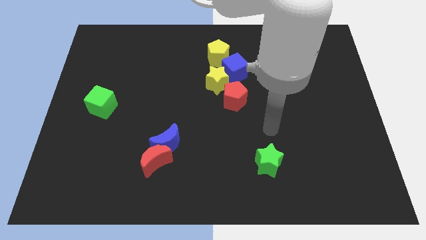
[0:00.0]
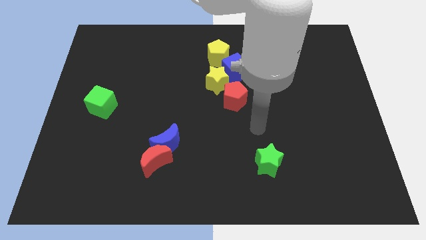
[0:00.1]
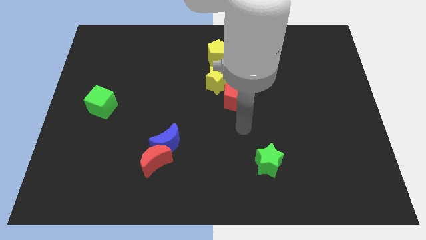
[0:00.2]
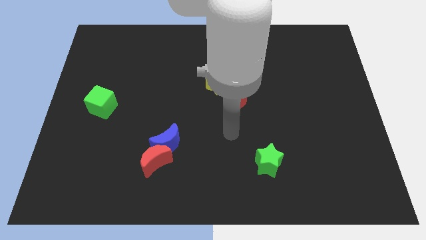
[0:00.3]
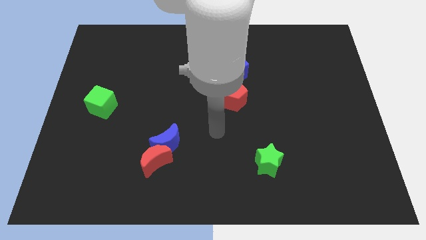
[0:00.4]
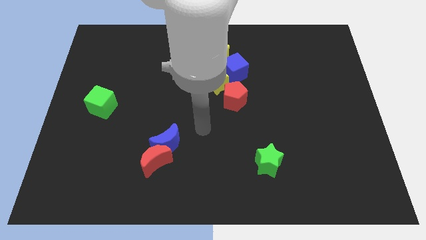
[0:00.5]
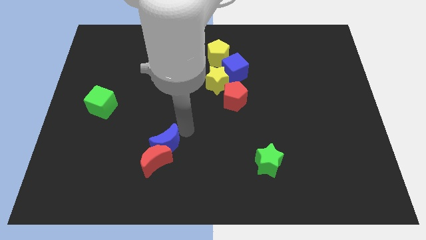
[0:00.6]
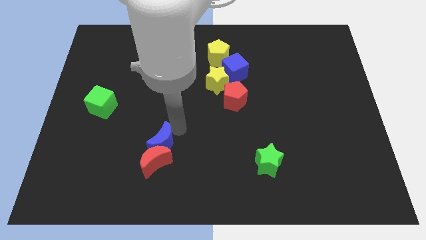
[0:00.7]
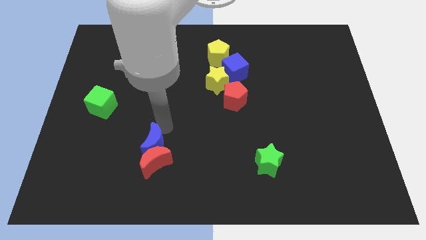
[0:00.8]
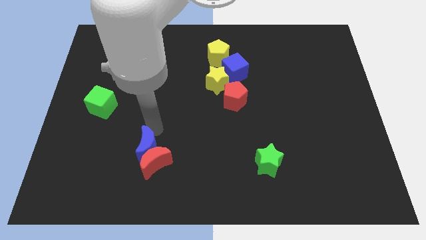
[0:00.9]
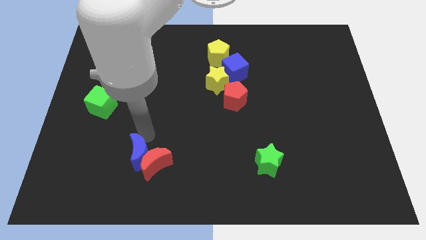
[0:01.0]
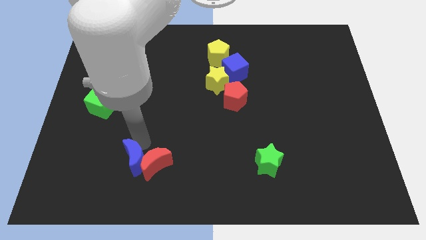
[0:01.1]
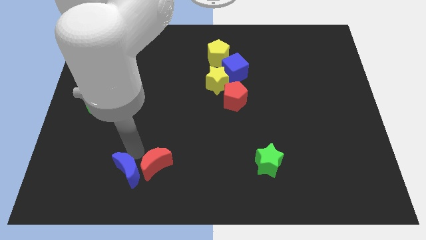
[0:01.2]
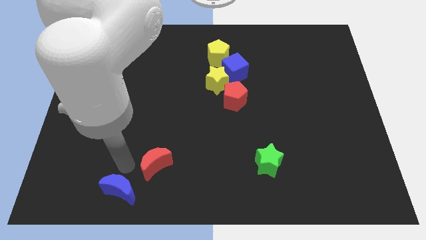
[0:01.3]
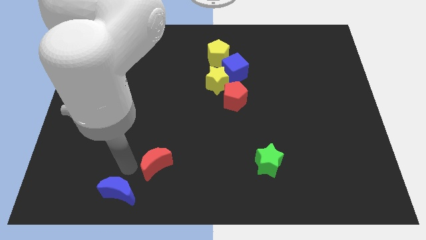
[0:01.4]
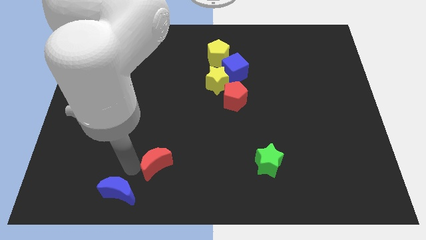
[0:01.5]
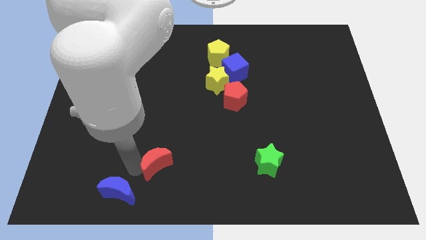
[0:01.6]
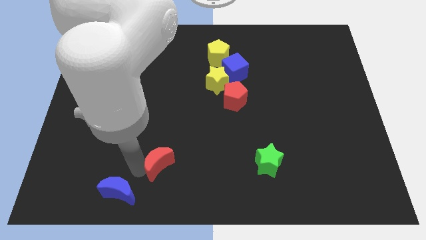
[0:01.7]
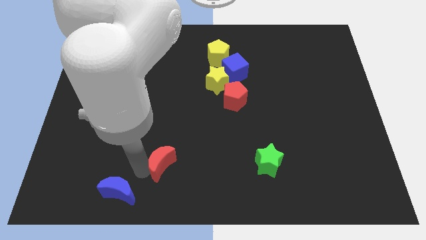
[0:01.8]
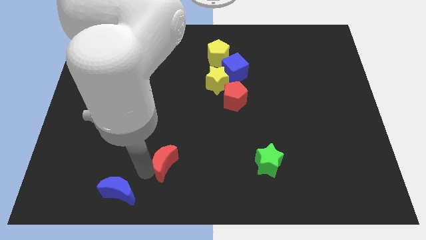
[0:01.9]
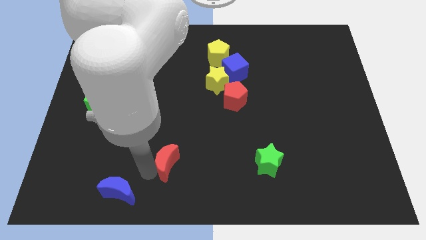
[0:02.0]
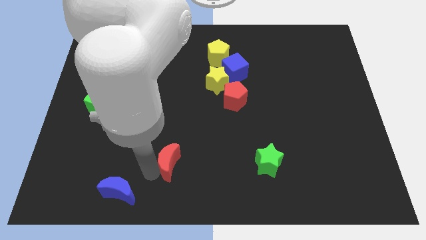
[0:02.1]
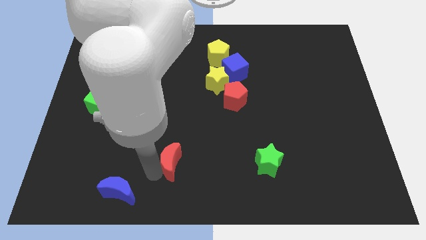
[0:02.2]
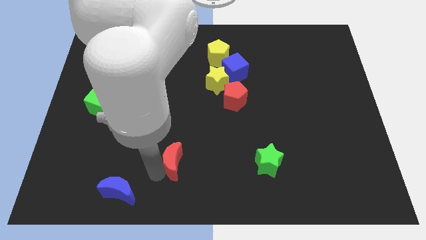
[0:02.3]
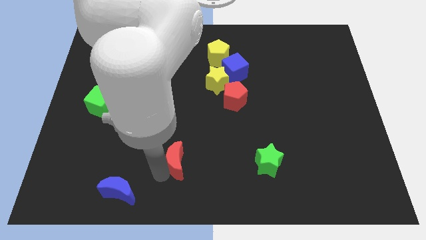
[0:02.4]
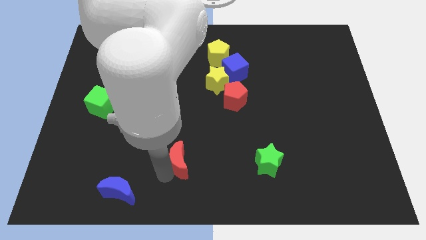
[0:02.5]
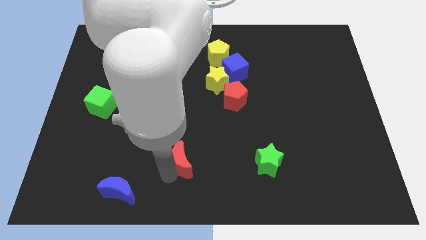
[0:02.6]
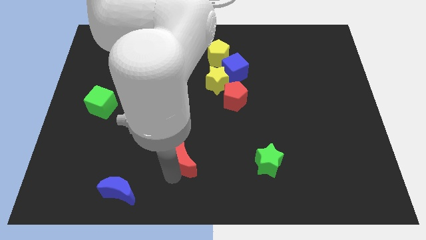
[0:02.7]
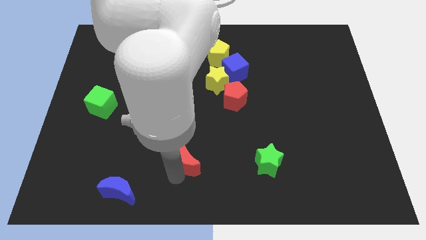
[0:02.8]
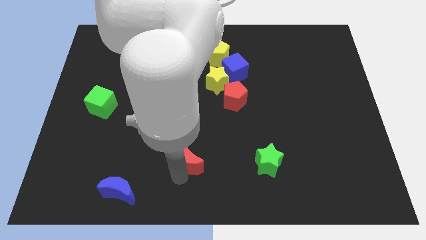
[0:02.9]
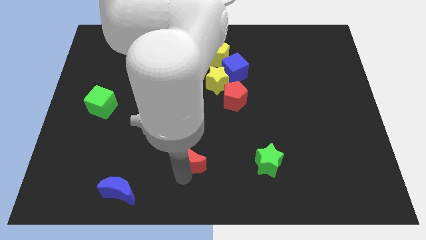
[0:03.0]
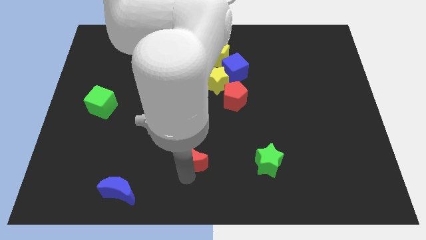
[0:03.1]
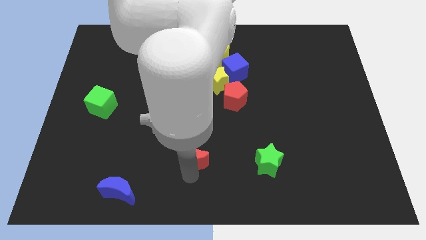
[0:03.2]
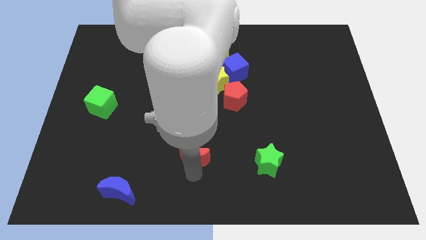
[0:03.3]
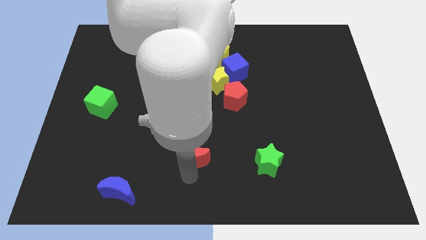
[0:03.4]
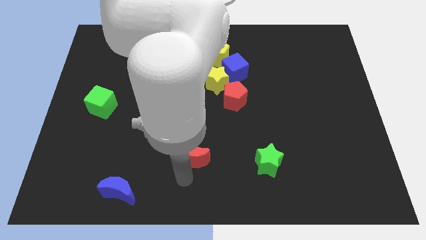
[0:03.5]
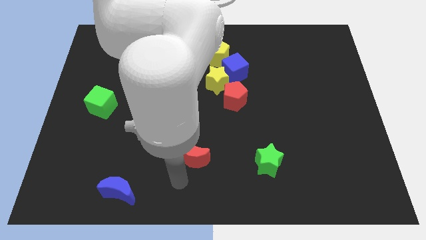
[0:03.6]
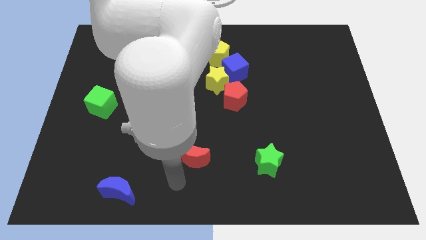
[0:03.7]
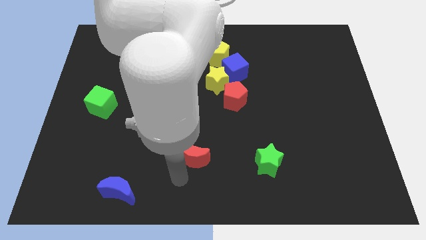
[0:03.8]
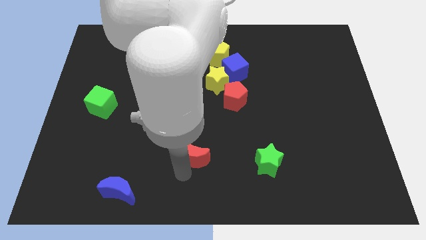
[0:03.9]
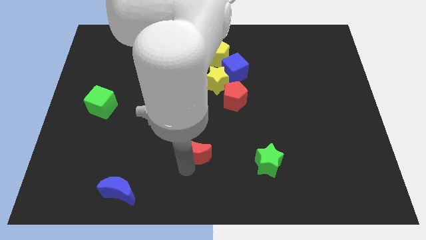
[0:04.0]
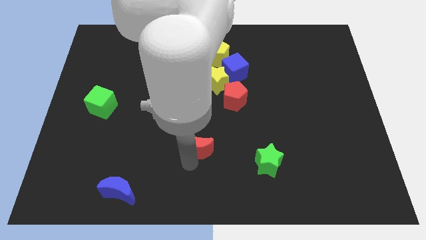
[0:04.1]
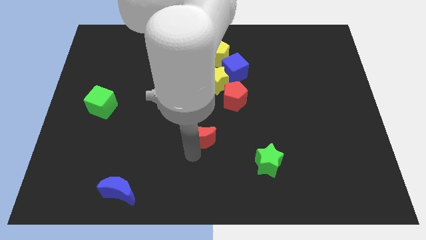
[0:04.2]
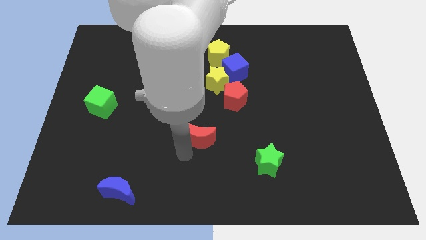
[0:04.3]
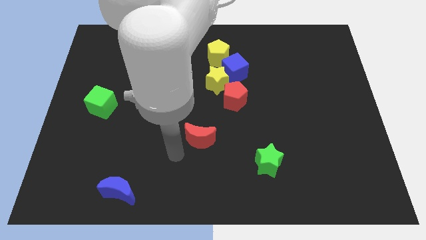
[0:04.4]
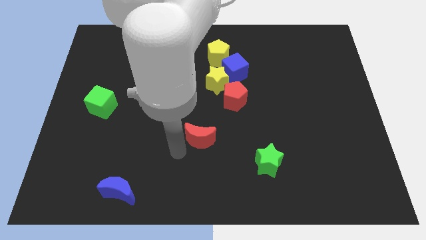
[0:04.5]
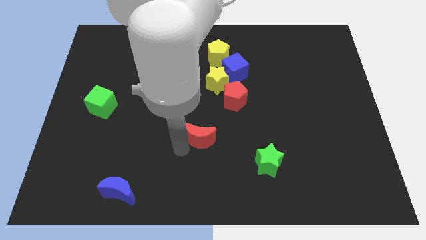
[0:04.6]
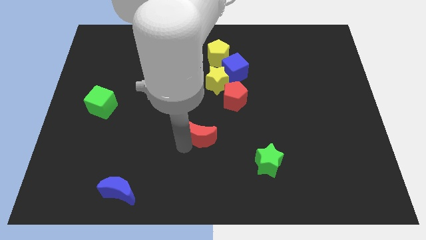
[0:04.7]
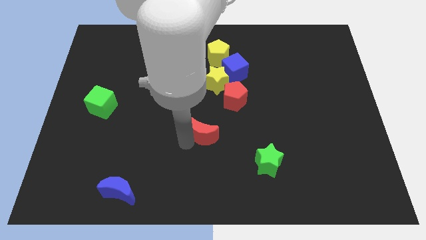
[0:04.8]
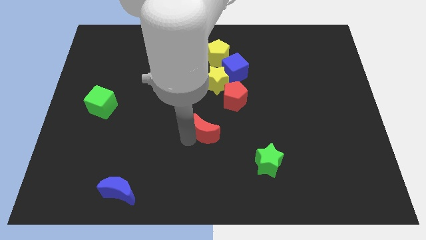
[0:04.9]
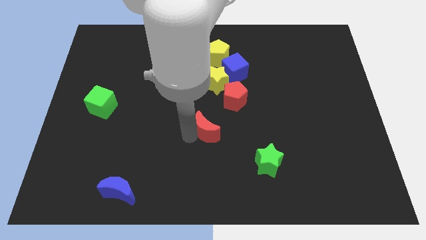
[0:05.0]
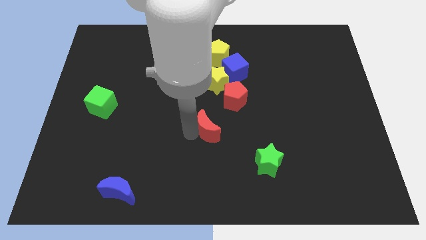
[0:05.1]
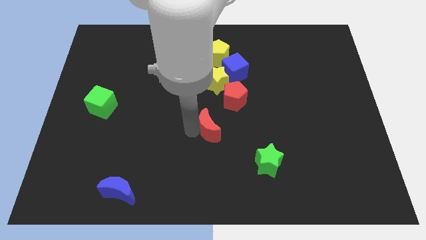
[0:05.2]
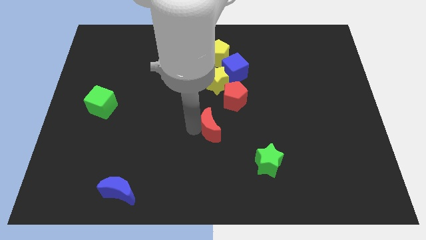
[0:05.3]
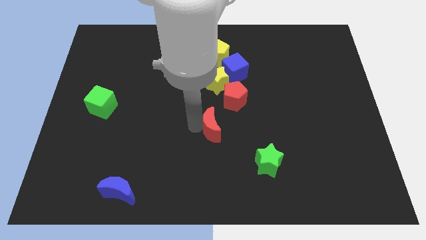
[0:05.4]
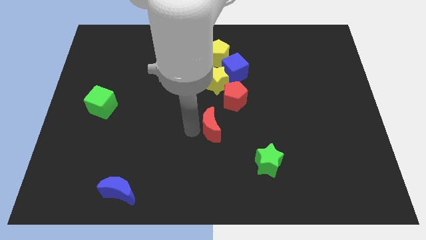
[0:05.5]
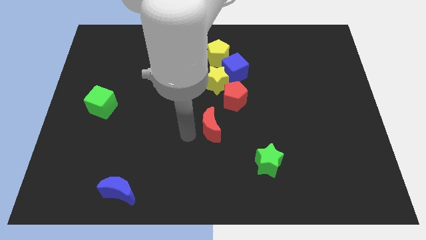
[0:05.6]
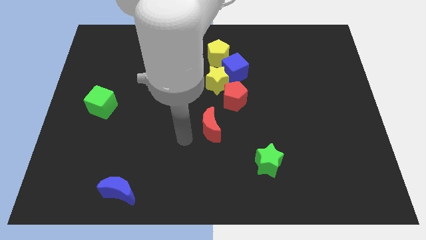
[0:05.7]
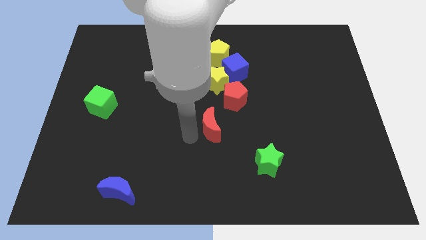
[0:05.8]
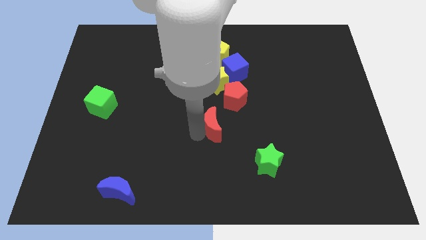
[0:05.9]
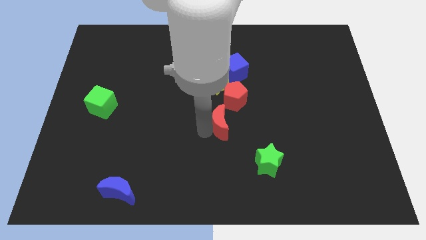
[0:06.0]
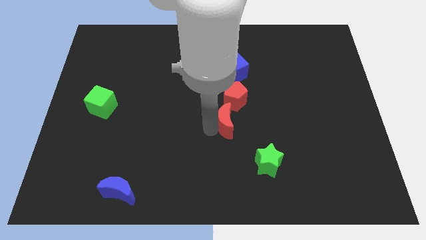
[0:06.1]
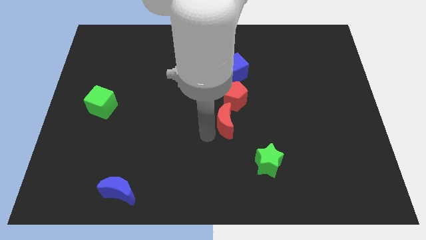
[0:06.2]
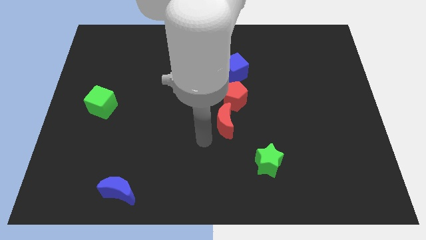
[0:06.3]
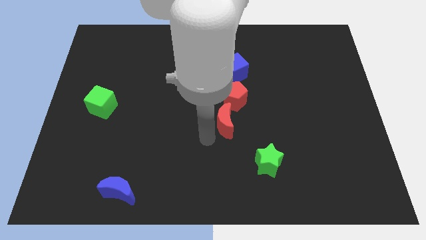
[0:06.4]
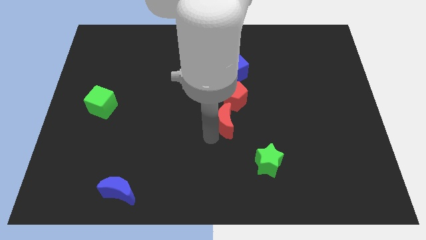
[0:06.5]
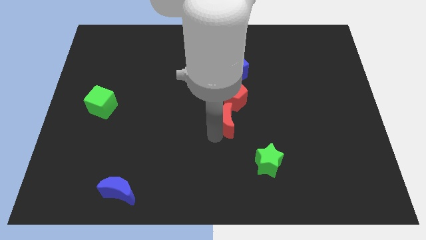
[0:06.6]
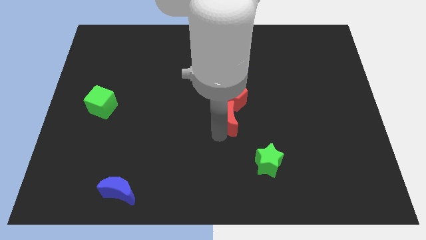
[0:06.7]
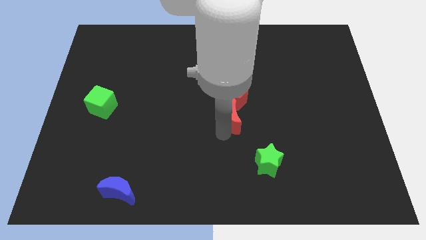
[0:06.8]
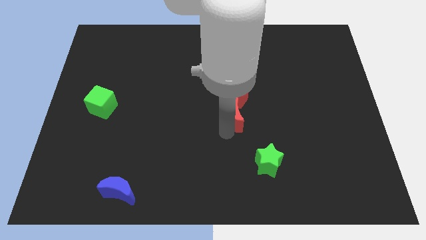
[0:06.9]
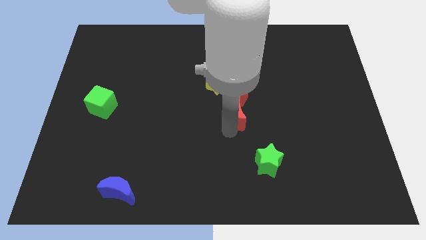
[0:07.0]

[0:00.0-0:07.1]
push the red moon upwards and then to the right

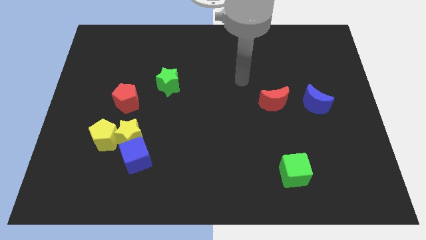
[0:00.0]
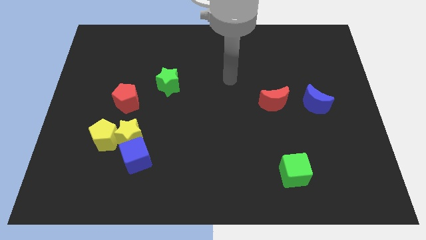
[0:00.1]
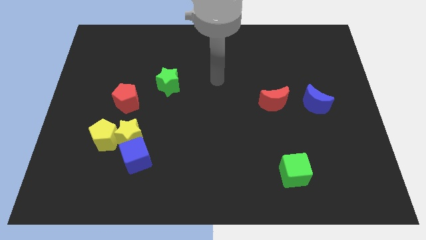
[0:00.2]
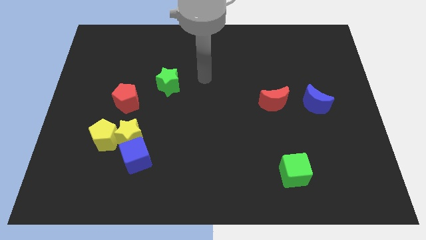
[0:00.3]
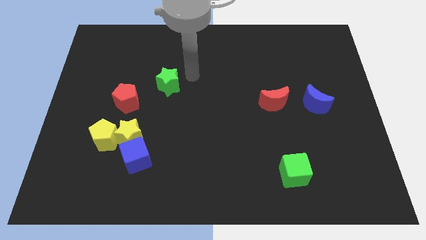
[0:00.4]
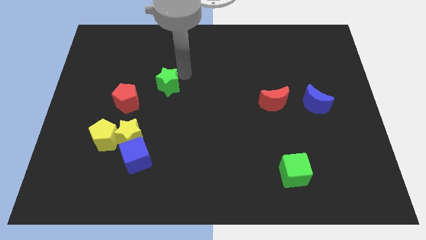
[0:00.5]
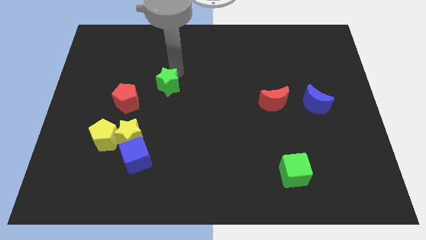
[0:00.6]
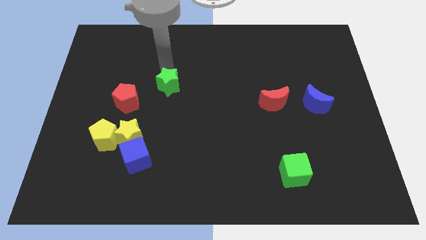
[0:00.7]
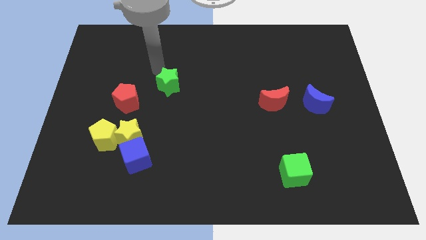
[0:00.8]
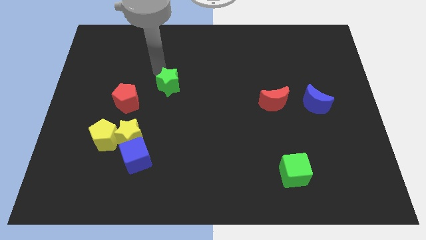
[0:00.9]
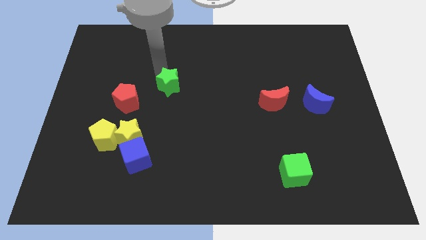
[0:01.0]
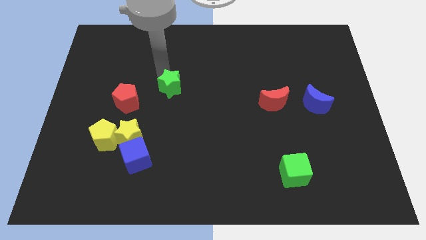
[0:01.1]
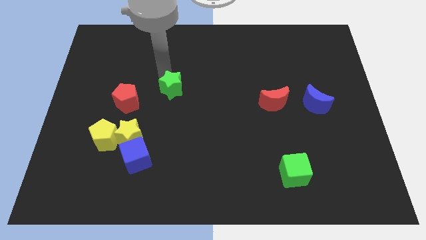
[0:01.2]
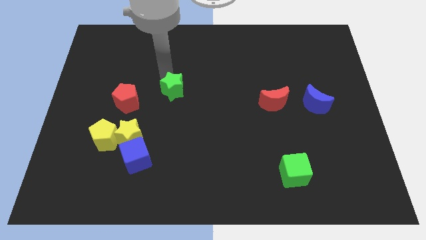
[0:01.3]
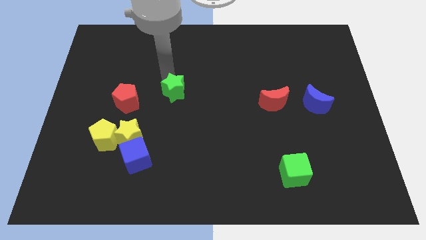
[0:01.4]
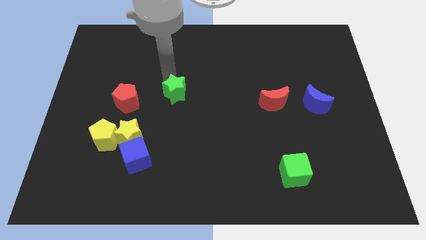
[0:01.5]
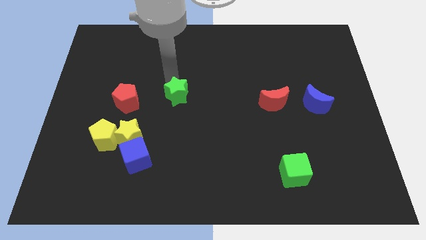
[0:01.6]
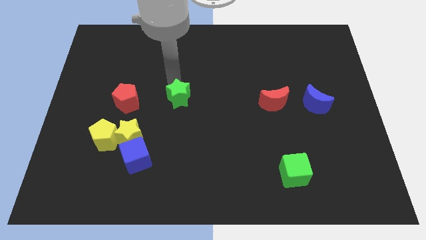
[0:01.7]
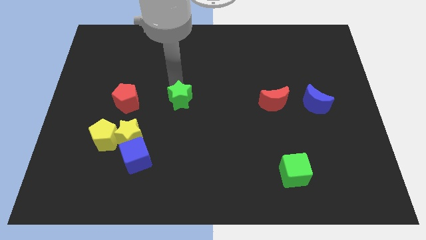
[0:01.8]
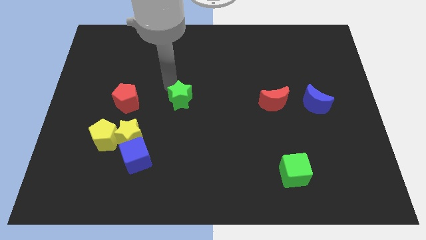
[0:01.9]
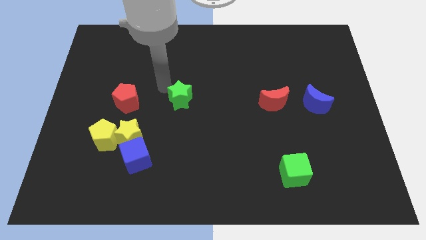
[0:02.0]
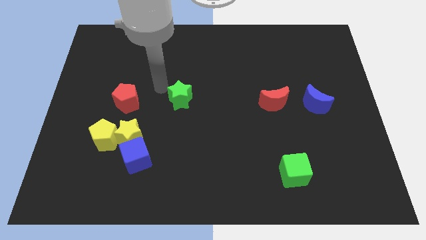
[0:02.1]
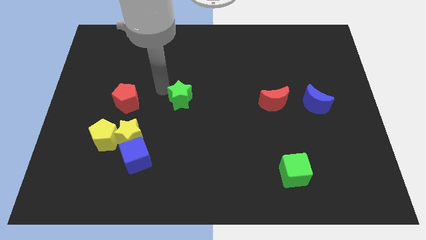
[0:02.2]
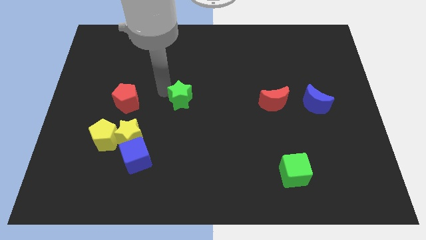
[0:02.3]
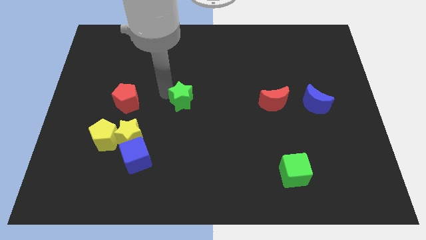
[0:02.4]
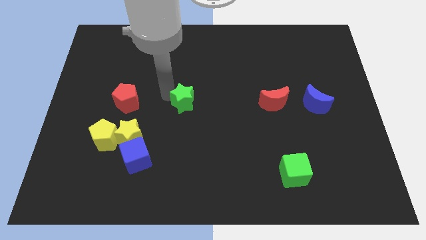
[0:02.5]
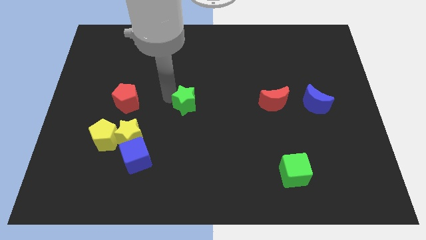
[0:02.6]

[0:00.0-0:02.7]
slightly move the green star downwards and to the right diagonally
